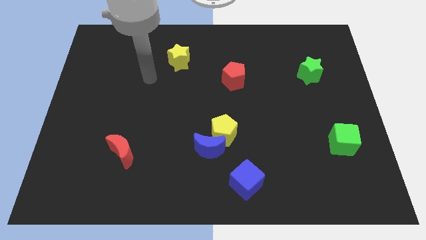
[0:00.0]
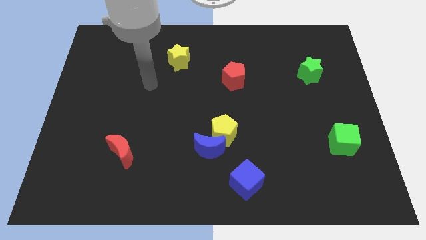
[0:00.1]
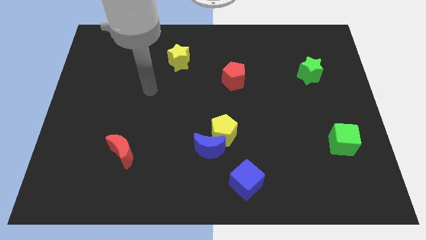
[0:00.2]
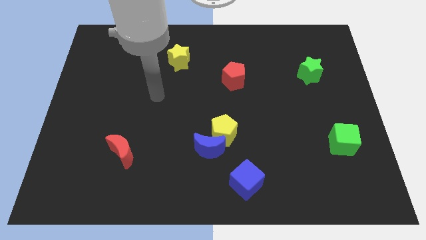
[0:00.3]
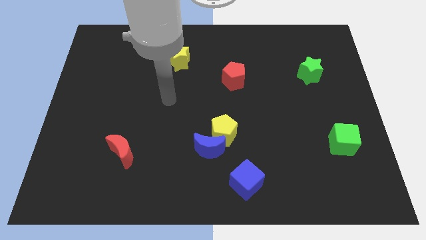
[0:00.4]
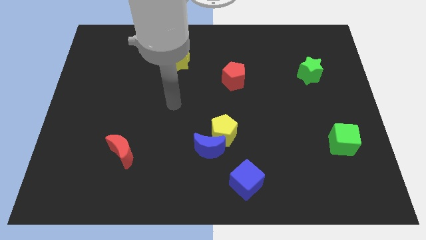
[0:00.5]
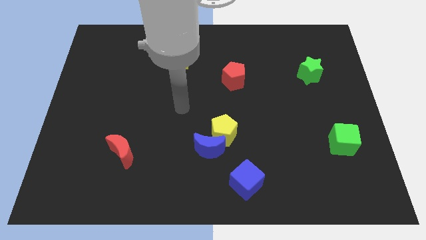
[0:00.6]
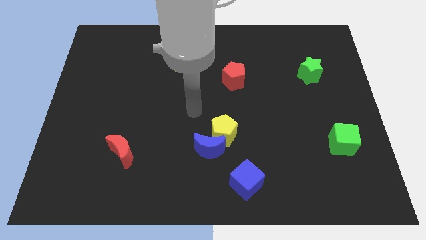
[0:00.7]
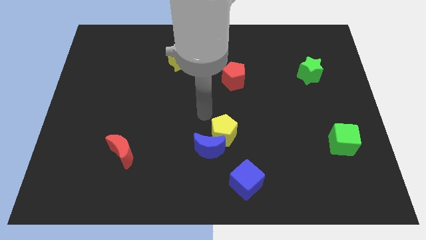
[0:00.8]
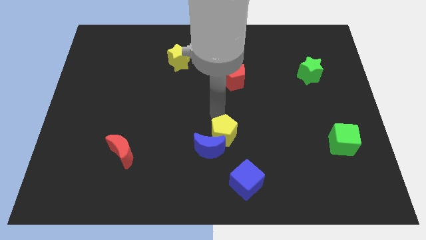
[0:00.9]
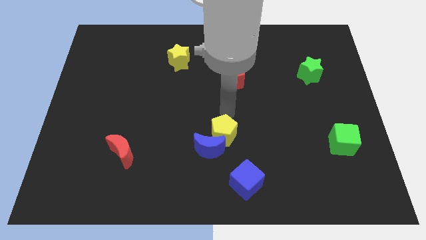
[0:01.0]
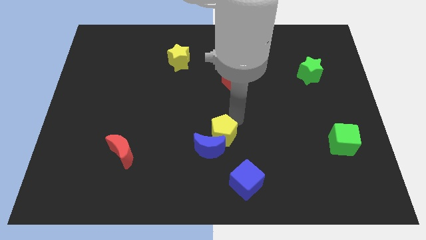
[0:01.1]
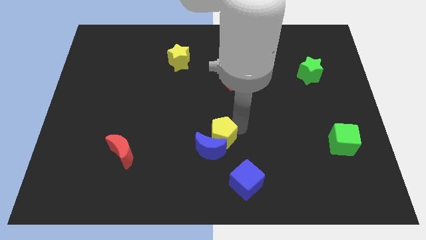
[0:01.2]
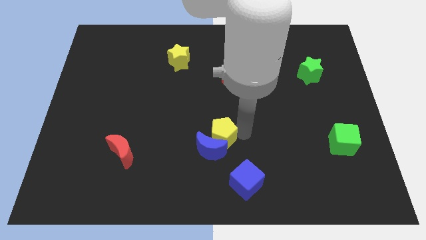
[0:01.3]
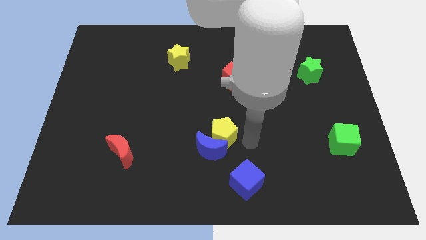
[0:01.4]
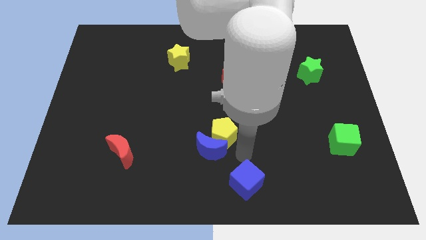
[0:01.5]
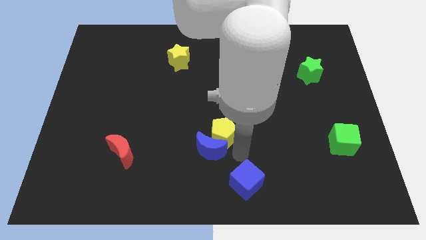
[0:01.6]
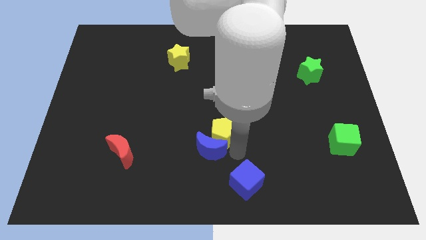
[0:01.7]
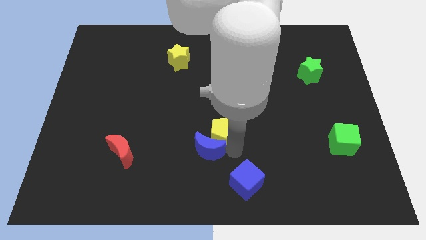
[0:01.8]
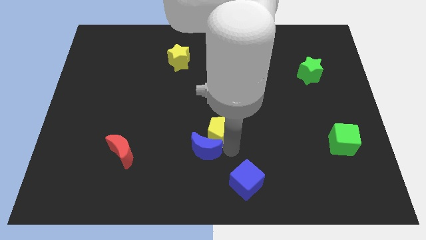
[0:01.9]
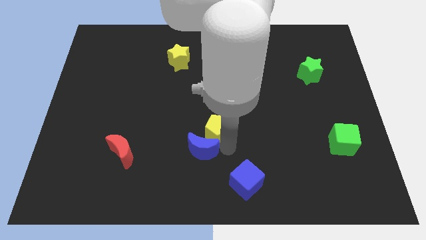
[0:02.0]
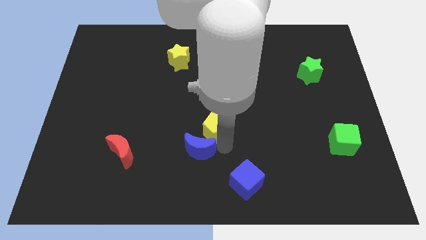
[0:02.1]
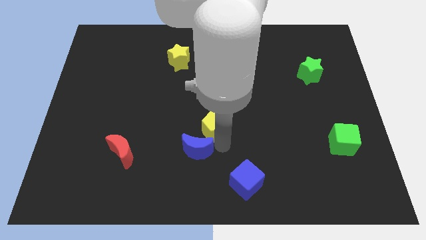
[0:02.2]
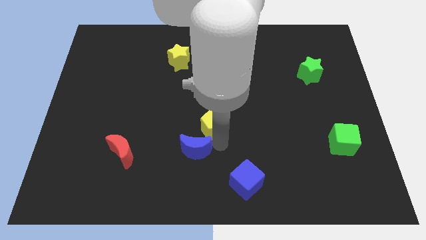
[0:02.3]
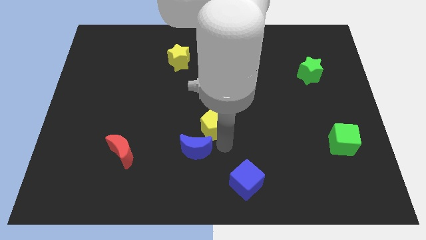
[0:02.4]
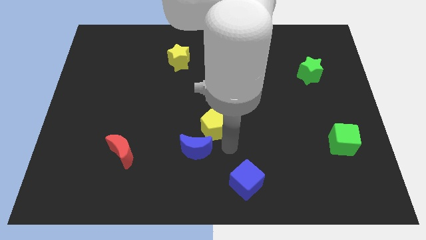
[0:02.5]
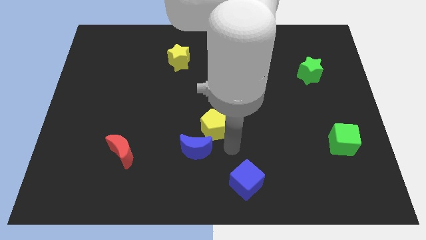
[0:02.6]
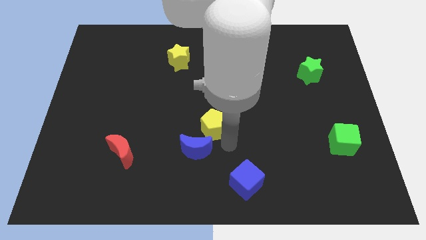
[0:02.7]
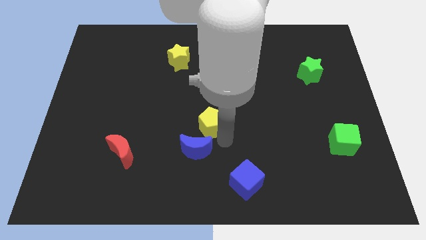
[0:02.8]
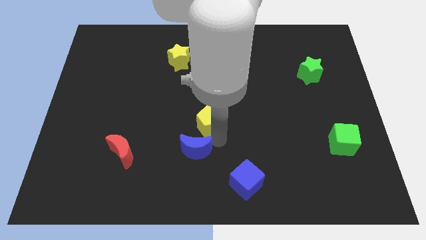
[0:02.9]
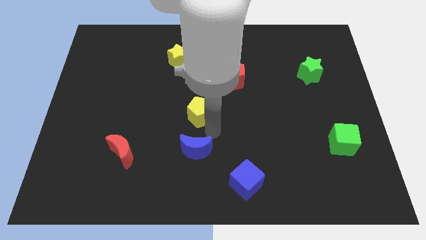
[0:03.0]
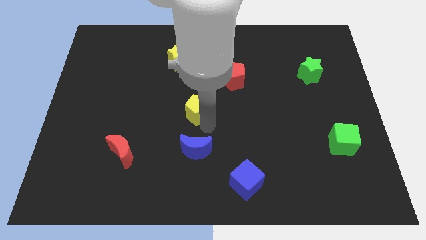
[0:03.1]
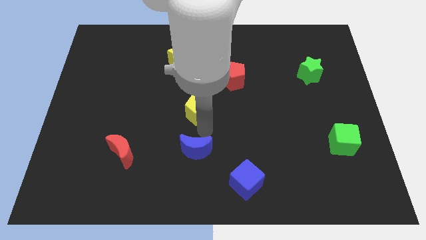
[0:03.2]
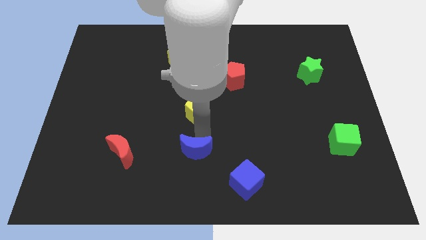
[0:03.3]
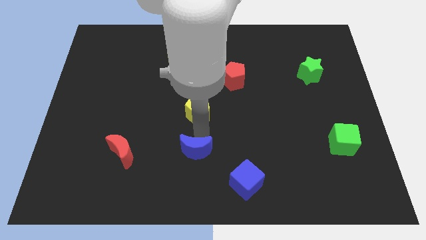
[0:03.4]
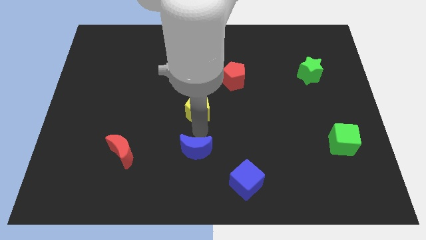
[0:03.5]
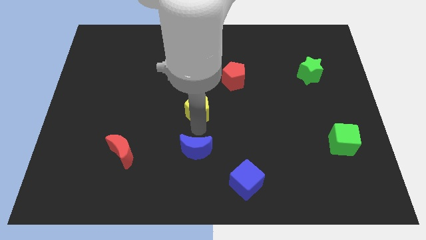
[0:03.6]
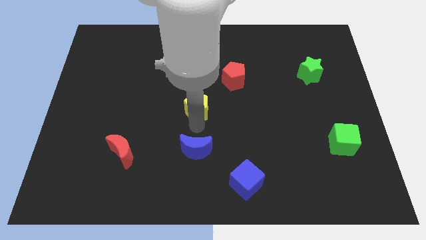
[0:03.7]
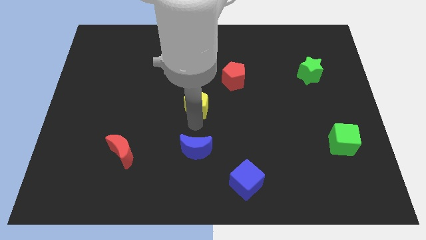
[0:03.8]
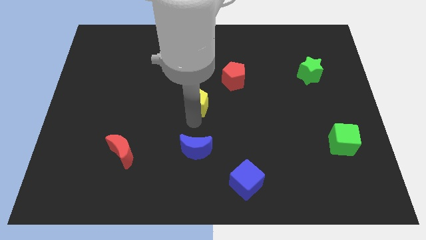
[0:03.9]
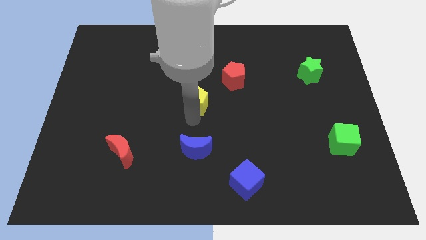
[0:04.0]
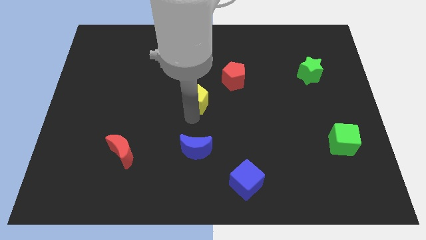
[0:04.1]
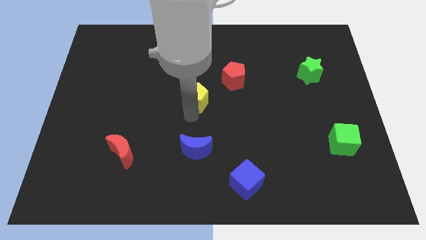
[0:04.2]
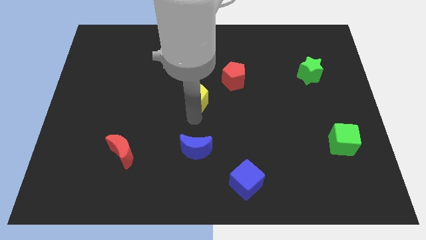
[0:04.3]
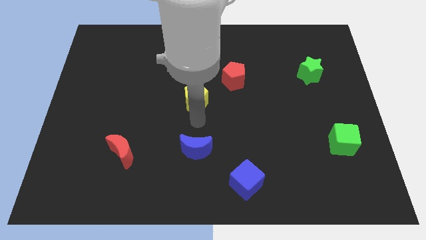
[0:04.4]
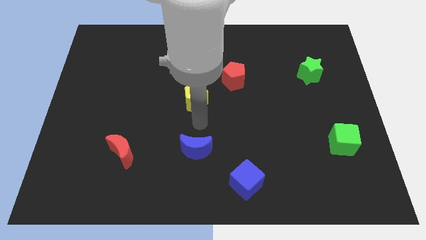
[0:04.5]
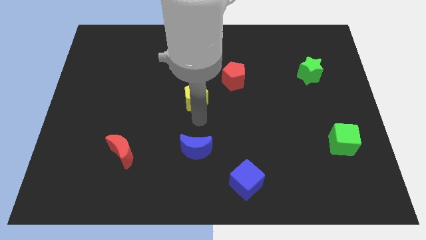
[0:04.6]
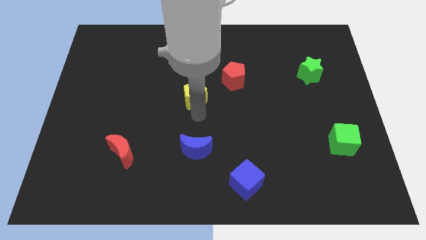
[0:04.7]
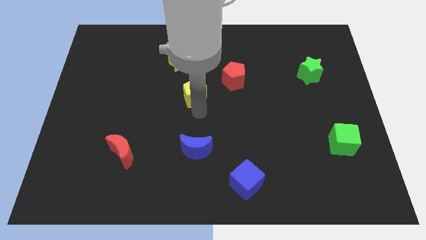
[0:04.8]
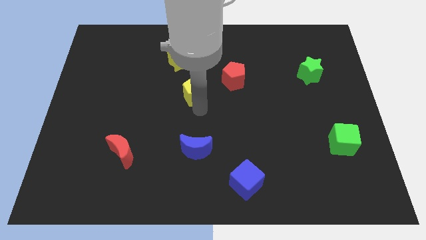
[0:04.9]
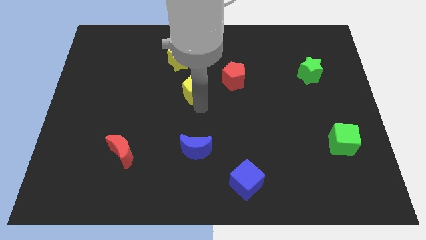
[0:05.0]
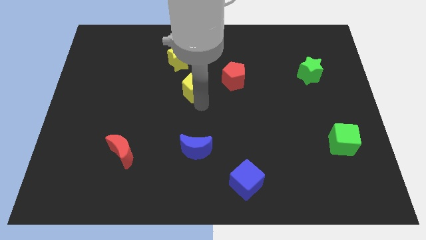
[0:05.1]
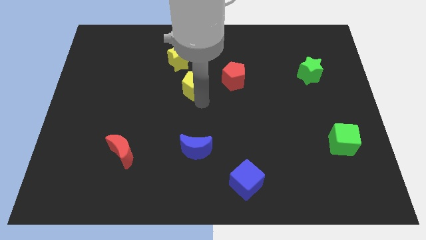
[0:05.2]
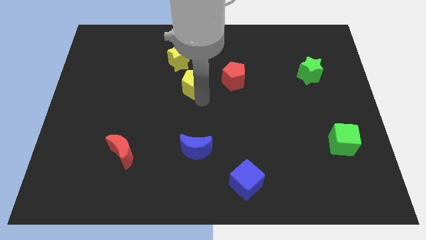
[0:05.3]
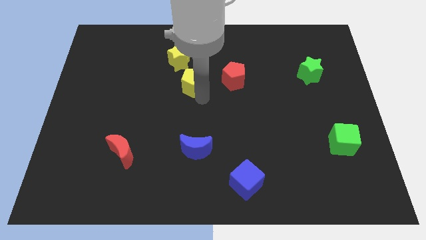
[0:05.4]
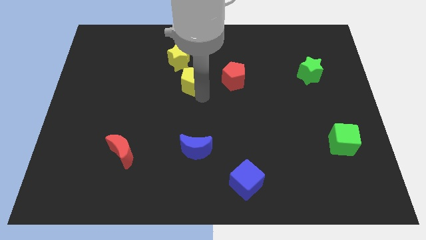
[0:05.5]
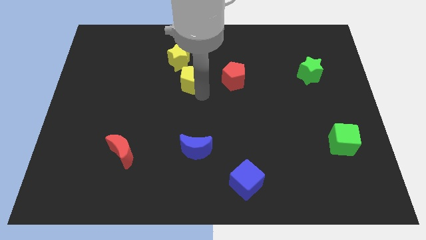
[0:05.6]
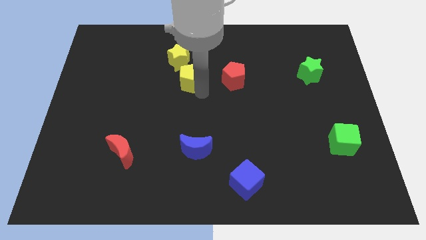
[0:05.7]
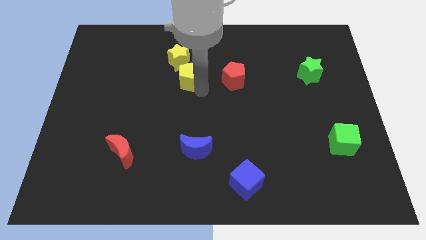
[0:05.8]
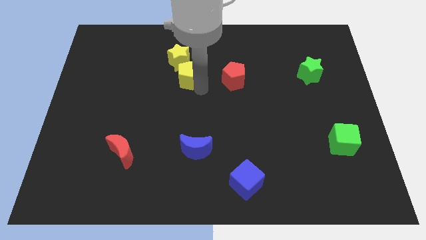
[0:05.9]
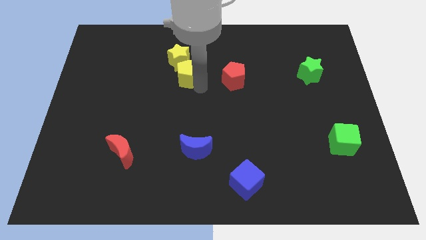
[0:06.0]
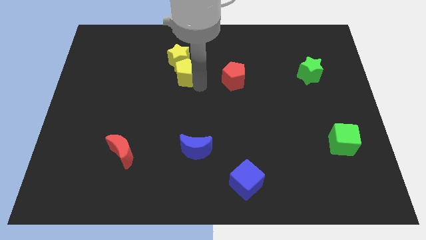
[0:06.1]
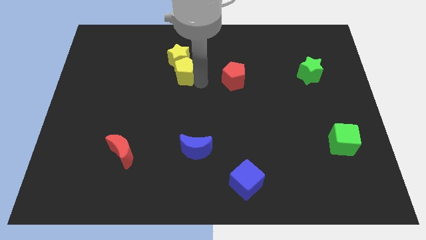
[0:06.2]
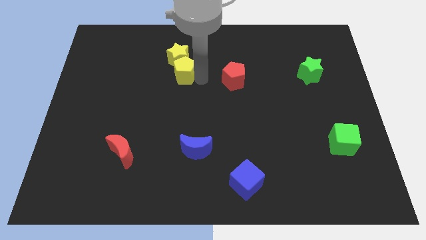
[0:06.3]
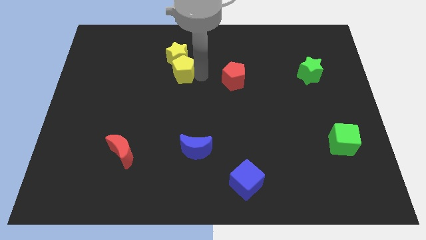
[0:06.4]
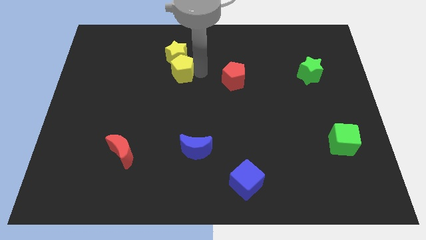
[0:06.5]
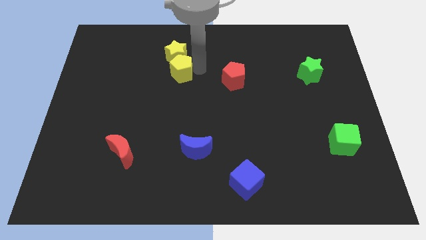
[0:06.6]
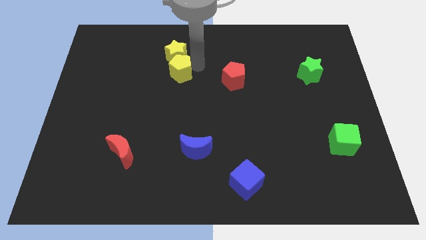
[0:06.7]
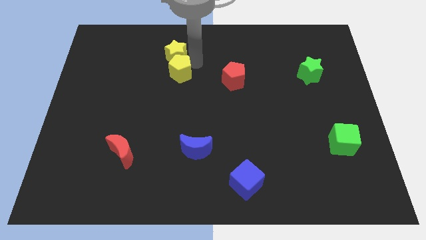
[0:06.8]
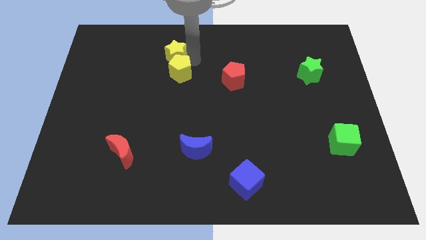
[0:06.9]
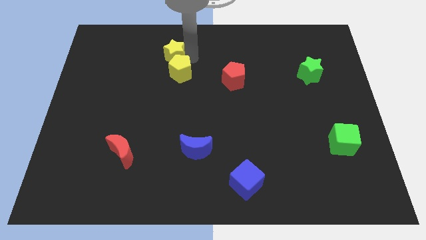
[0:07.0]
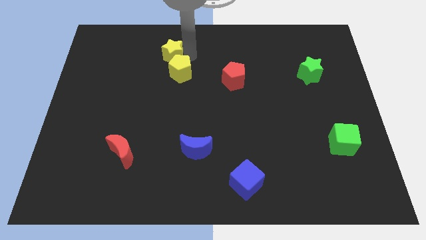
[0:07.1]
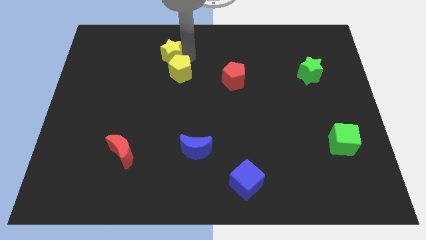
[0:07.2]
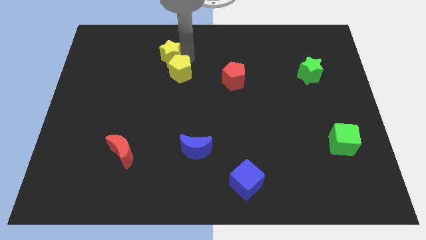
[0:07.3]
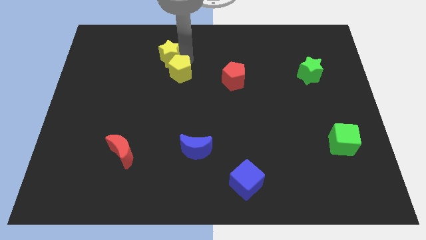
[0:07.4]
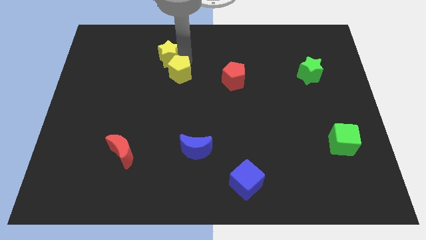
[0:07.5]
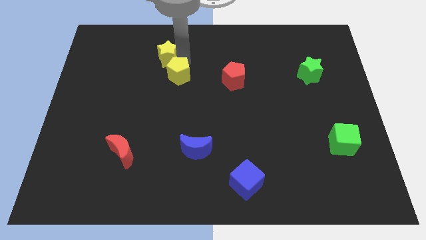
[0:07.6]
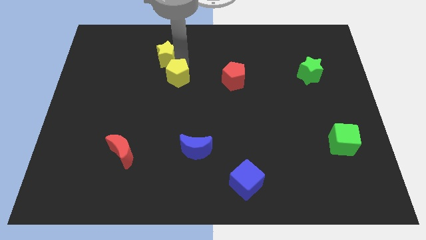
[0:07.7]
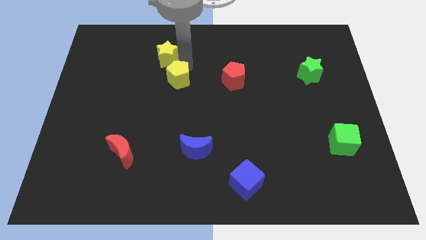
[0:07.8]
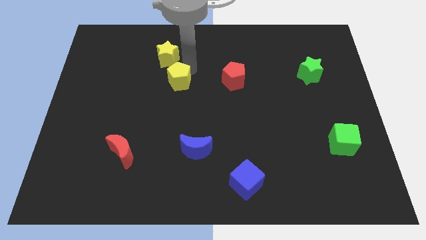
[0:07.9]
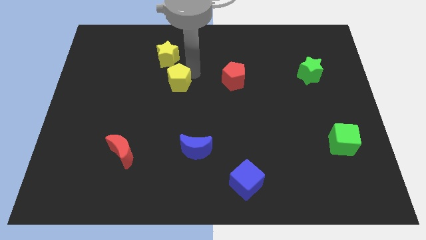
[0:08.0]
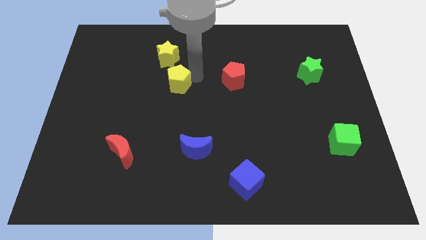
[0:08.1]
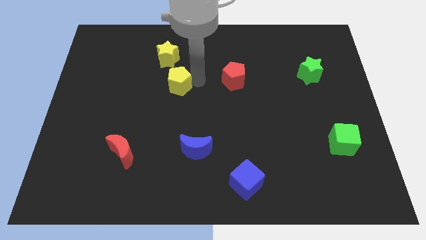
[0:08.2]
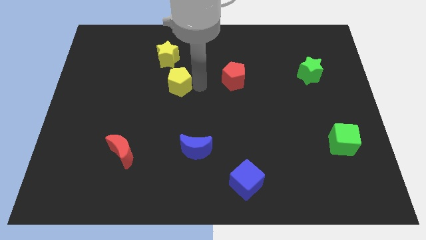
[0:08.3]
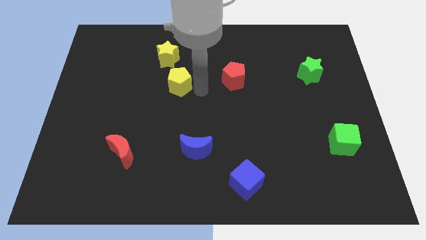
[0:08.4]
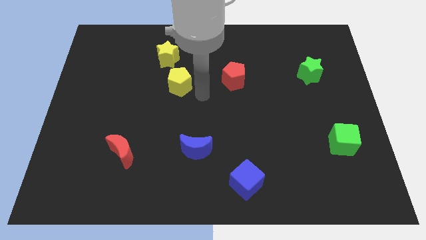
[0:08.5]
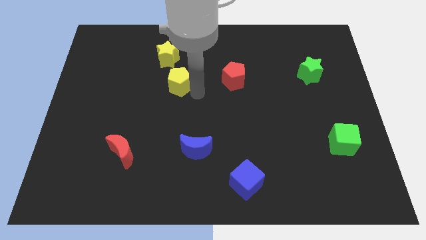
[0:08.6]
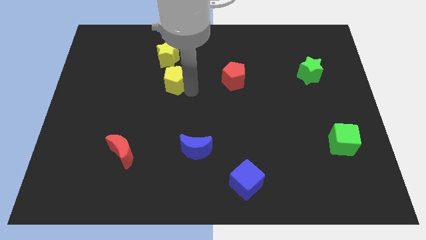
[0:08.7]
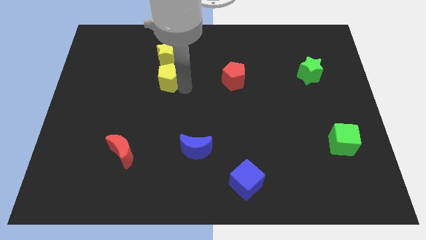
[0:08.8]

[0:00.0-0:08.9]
move the yellow pentagon diagonally upwards and to the left
